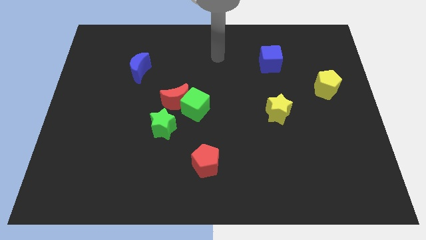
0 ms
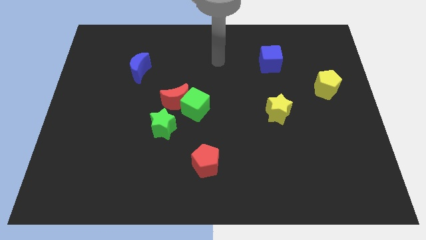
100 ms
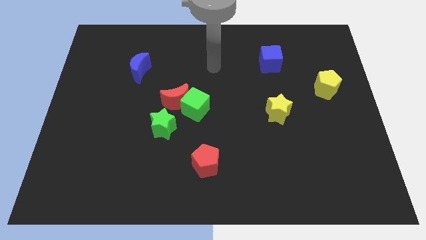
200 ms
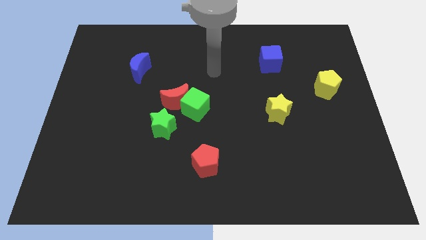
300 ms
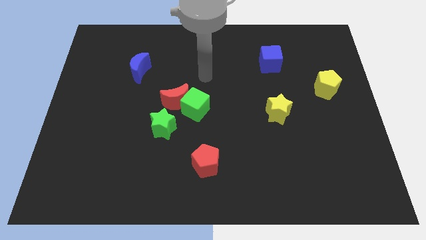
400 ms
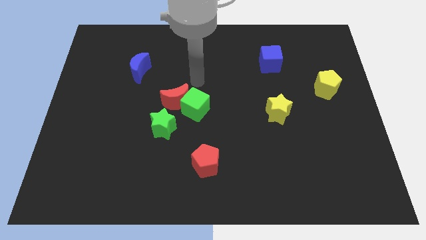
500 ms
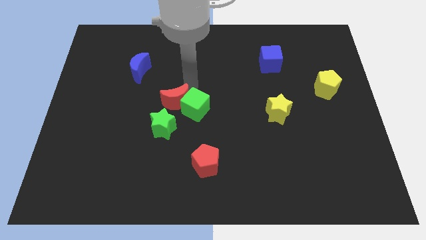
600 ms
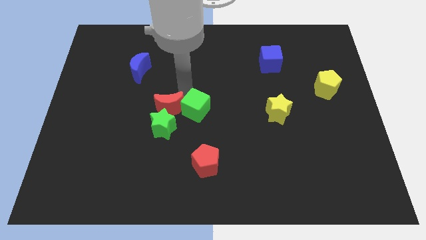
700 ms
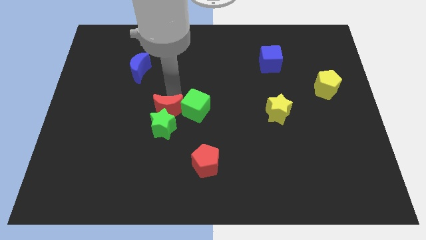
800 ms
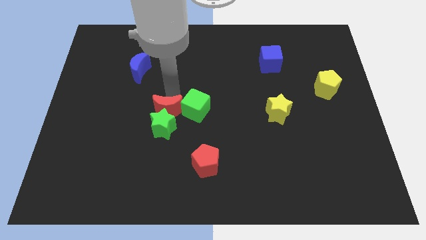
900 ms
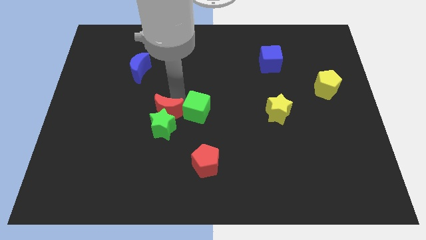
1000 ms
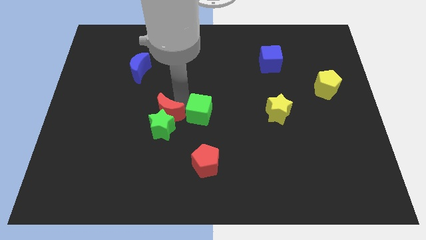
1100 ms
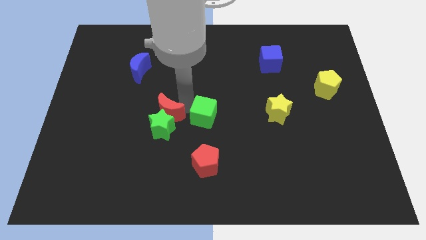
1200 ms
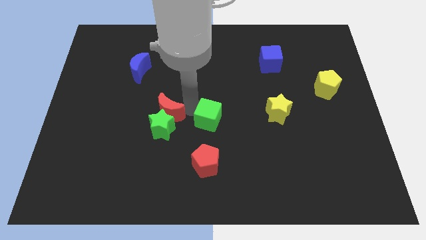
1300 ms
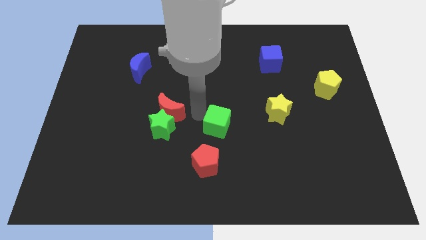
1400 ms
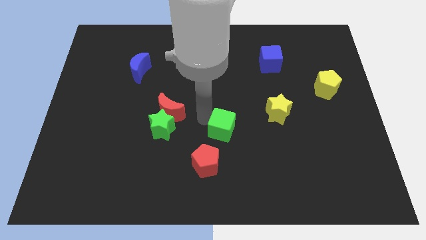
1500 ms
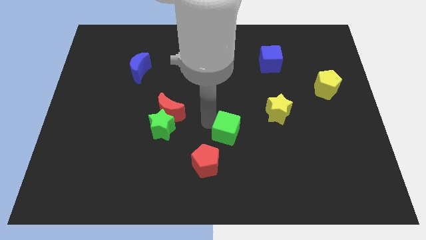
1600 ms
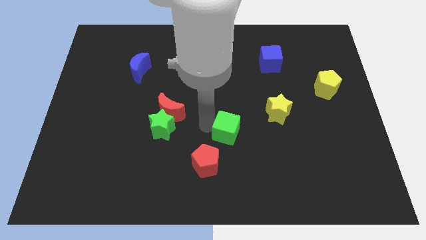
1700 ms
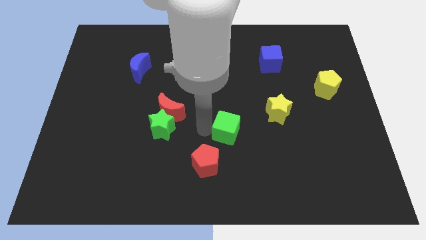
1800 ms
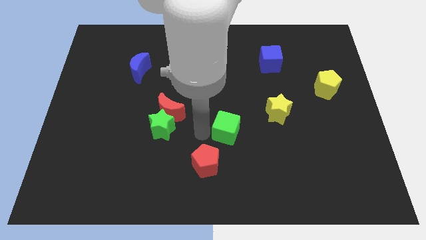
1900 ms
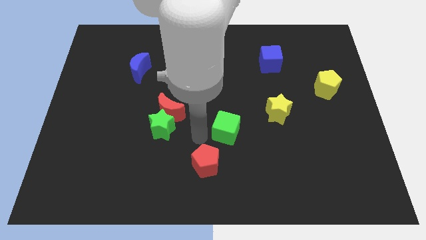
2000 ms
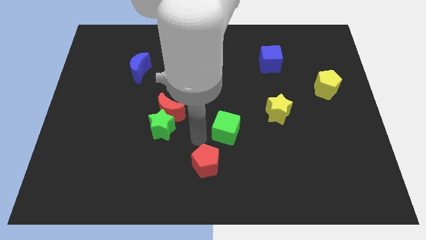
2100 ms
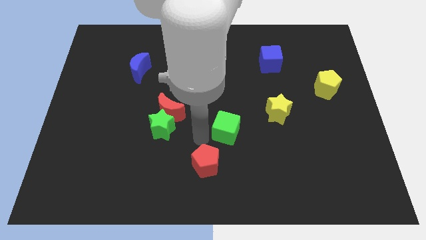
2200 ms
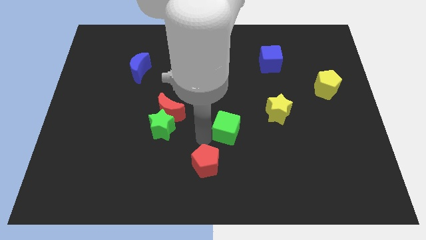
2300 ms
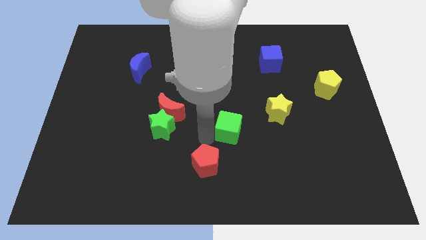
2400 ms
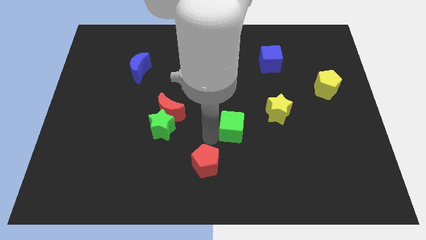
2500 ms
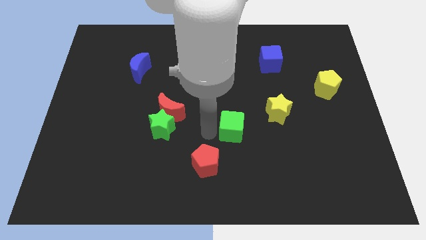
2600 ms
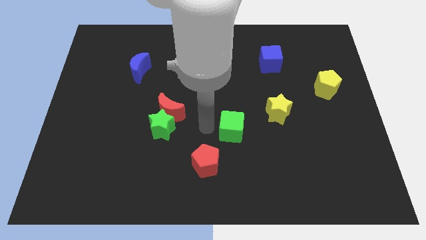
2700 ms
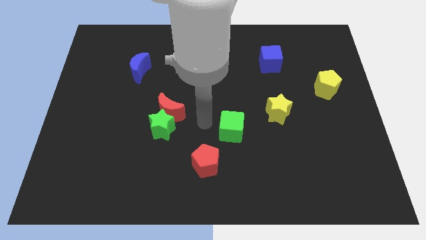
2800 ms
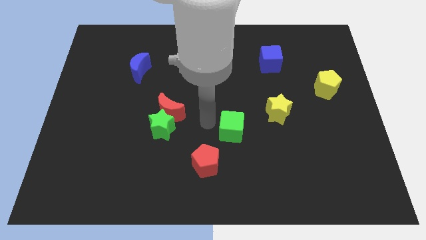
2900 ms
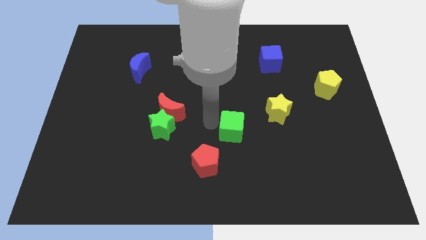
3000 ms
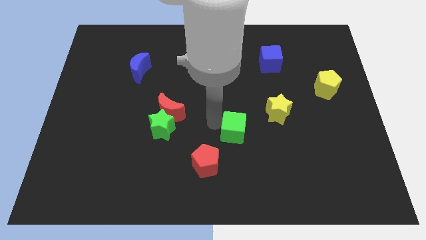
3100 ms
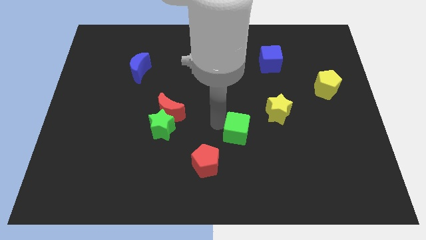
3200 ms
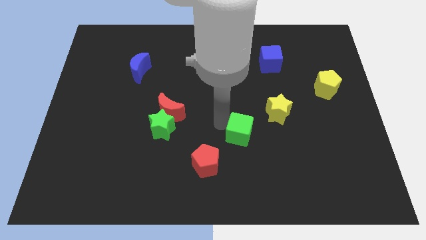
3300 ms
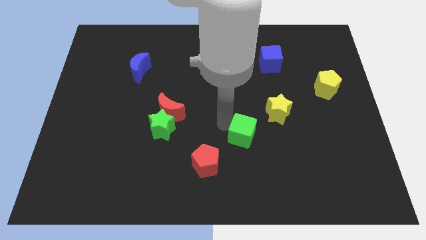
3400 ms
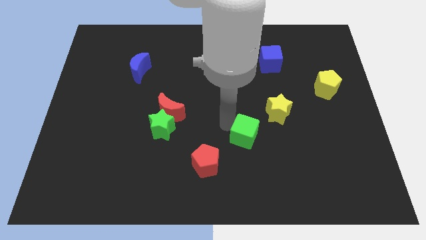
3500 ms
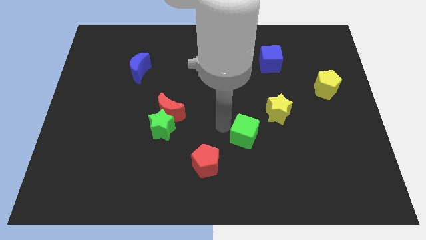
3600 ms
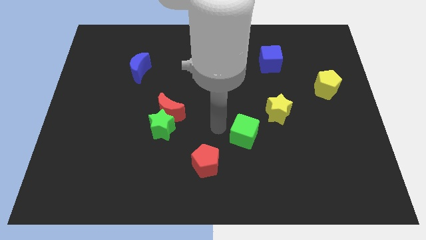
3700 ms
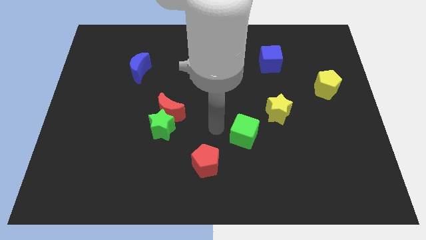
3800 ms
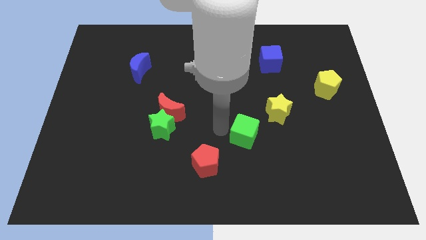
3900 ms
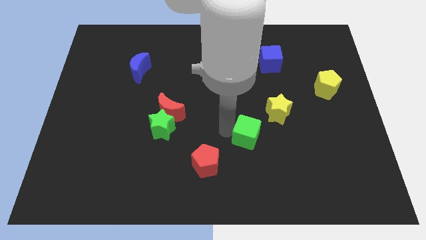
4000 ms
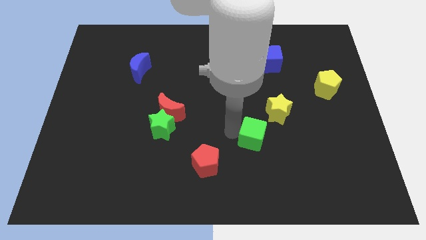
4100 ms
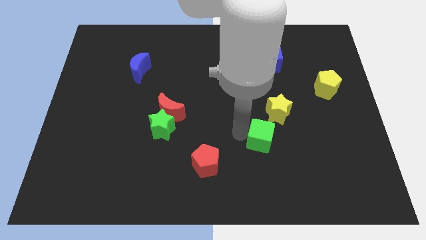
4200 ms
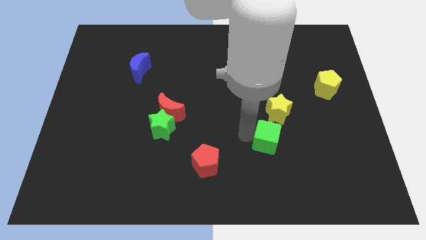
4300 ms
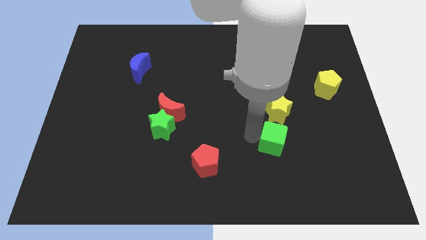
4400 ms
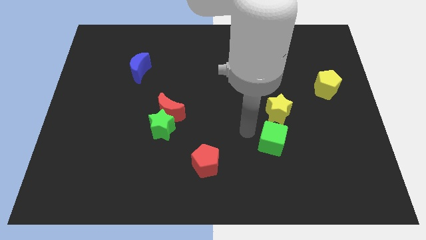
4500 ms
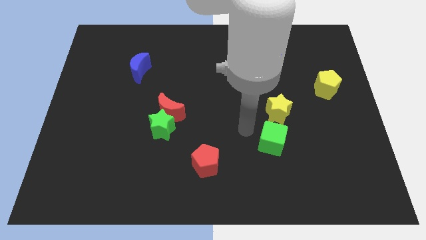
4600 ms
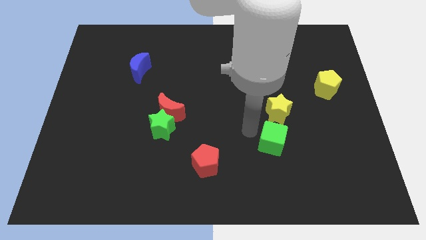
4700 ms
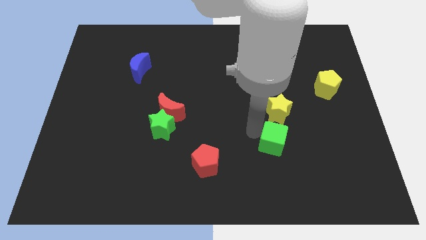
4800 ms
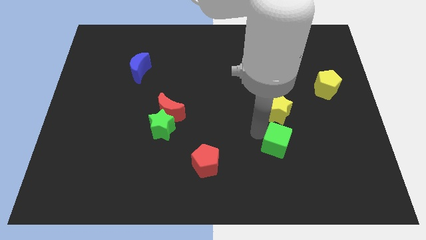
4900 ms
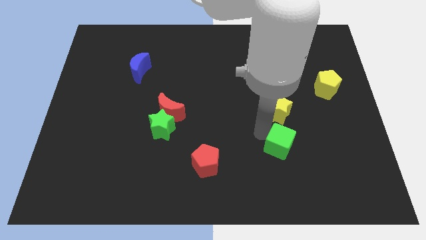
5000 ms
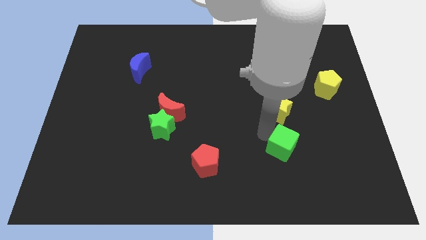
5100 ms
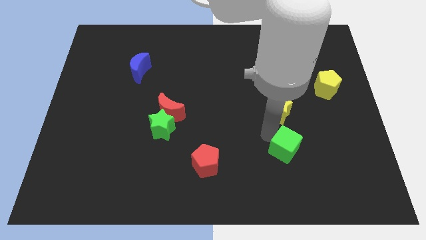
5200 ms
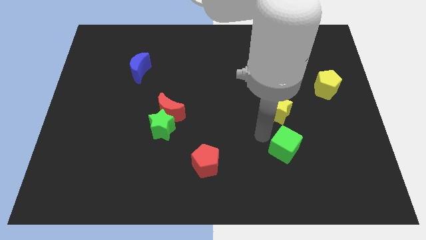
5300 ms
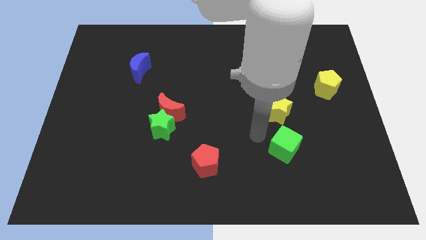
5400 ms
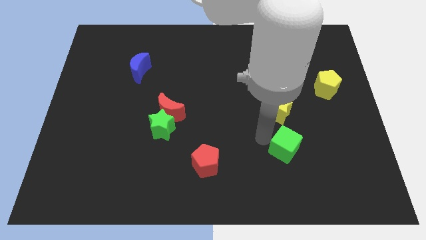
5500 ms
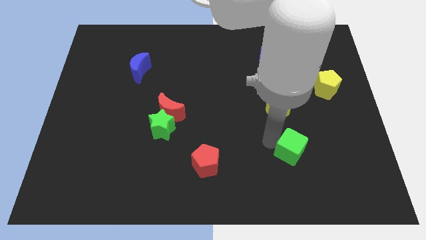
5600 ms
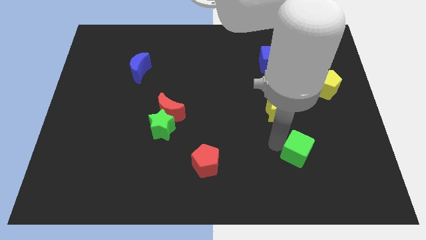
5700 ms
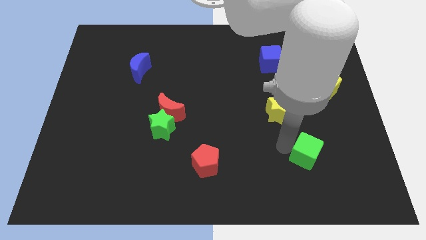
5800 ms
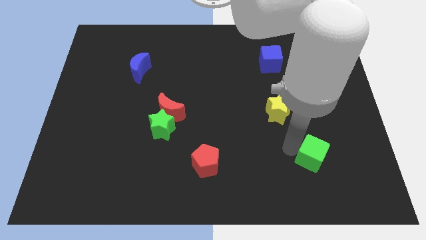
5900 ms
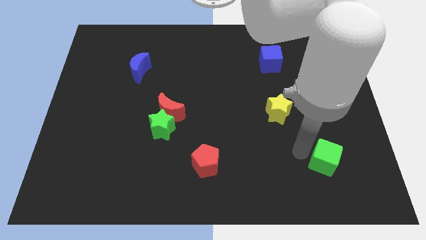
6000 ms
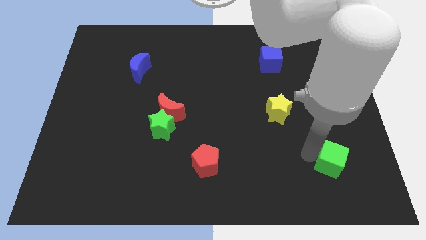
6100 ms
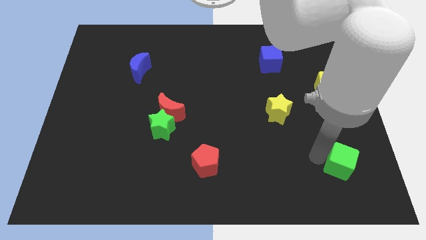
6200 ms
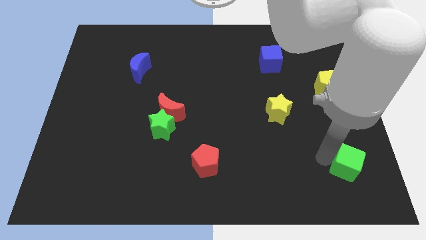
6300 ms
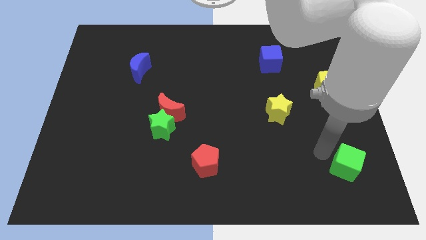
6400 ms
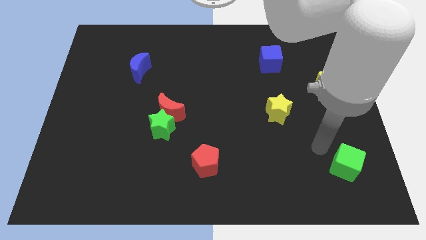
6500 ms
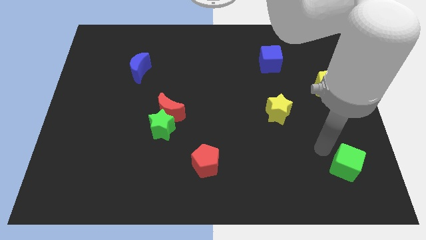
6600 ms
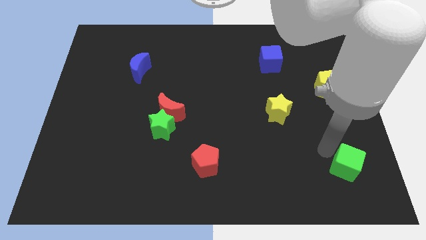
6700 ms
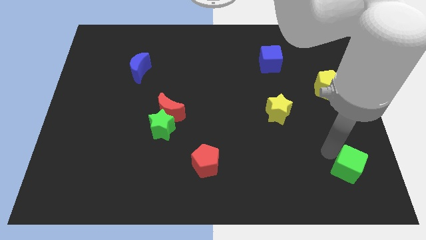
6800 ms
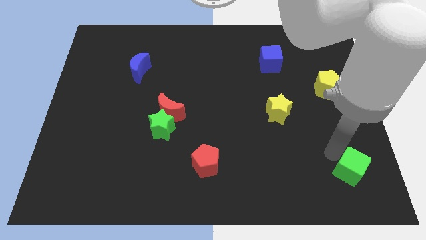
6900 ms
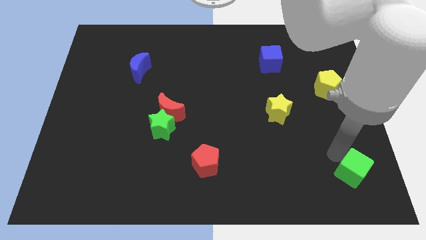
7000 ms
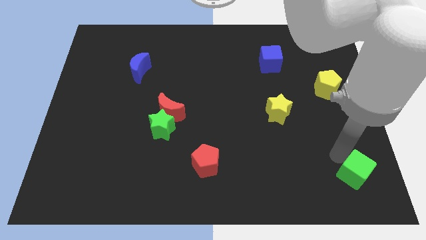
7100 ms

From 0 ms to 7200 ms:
put the green cube to the bottom right corner
